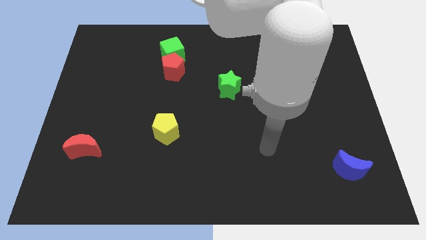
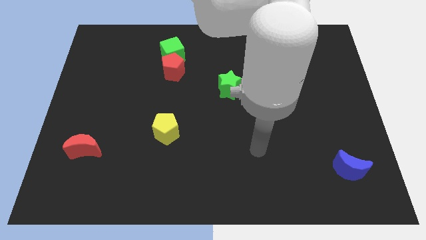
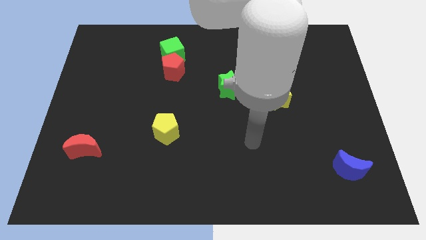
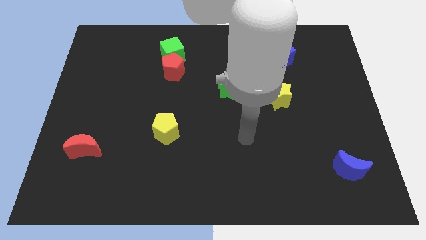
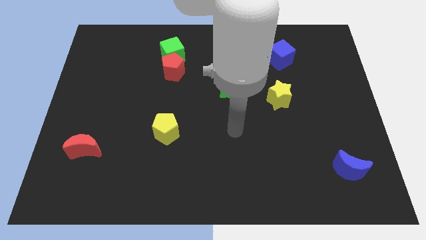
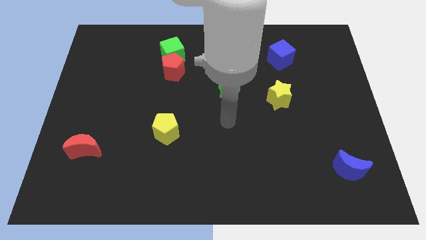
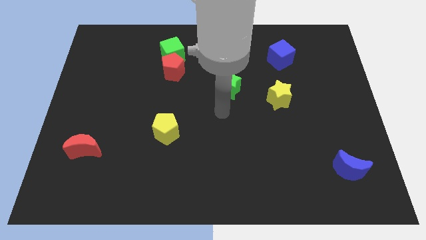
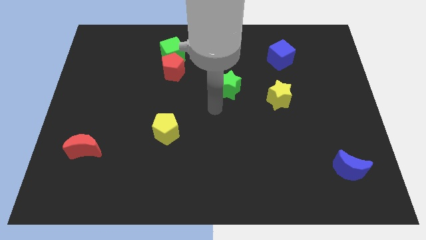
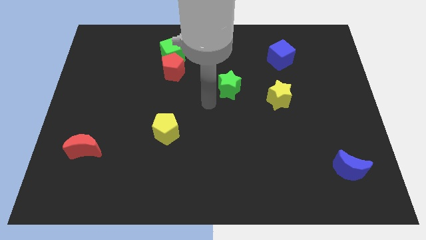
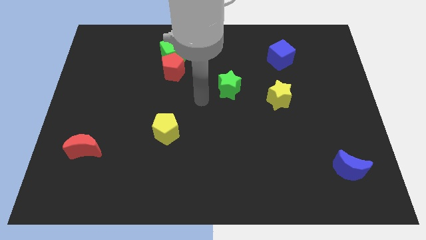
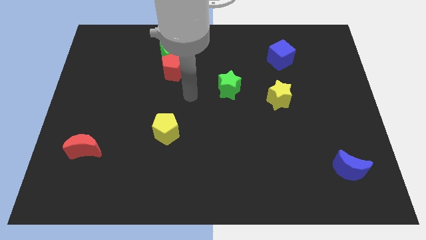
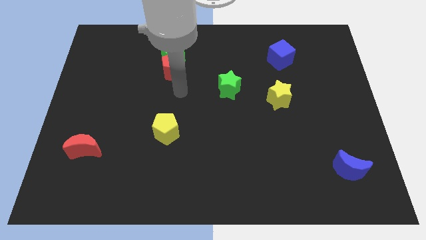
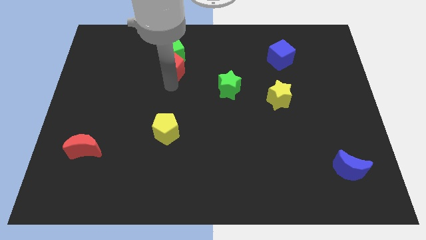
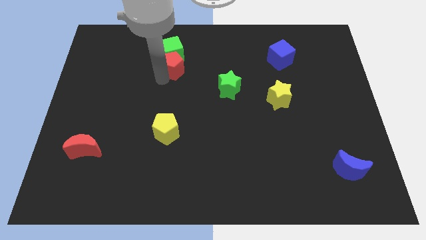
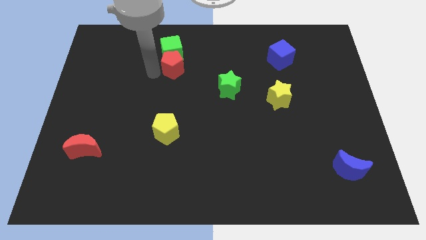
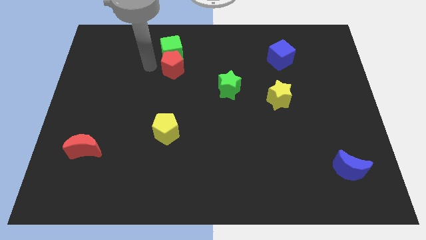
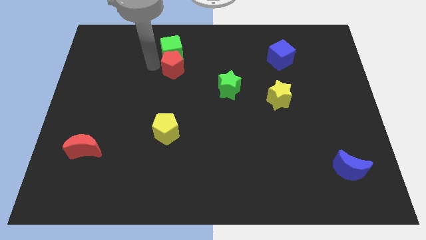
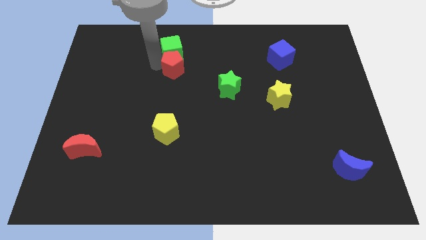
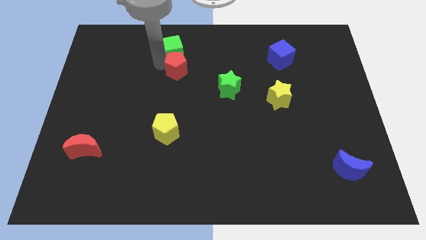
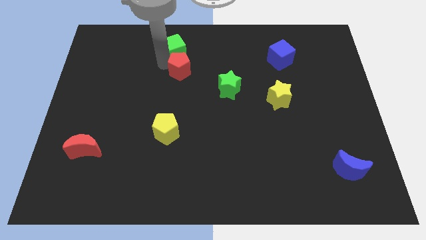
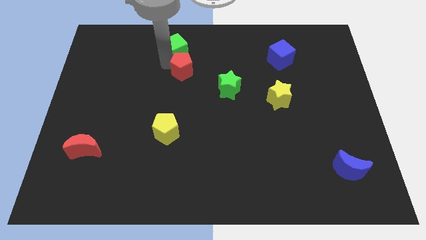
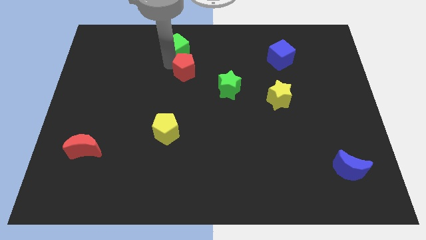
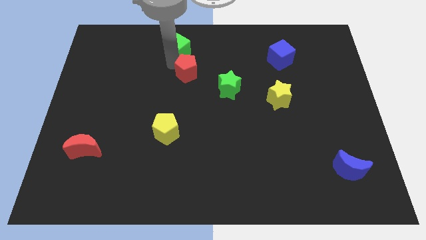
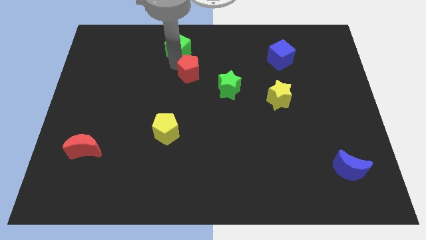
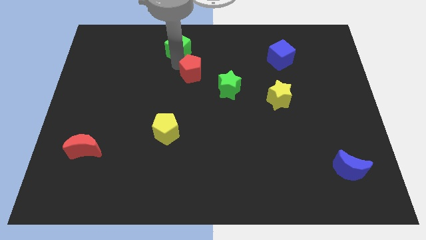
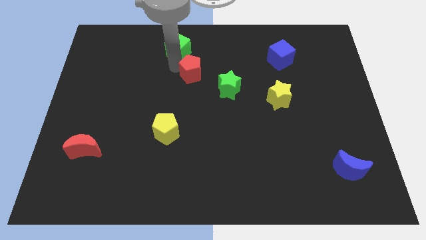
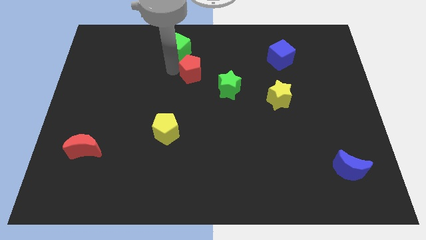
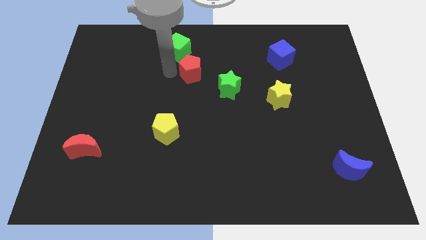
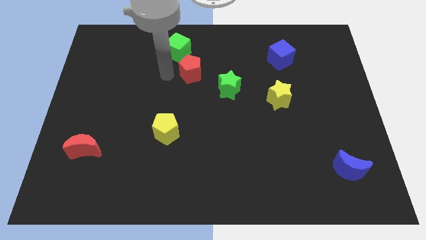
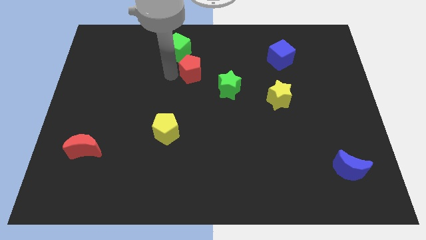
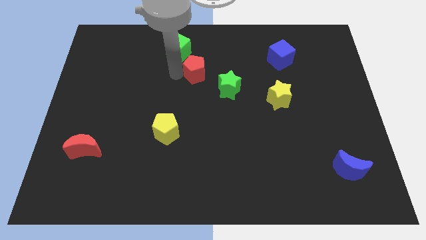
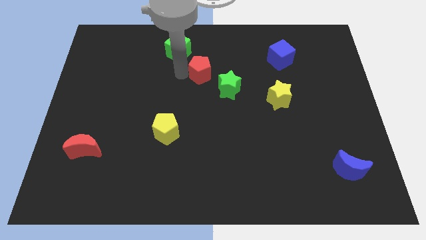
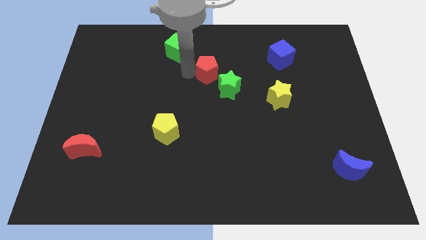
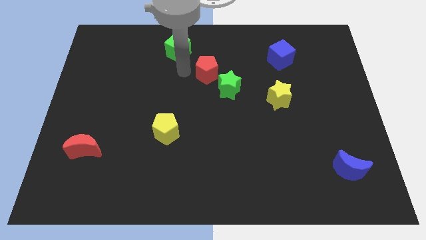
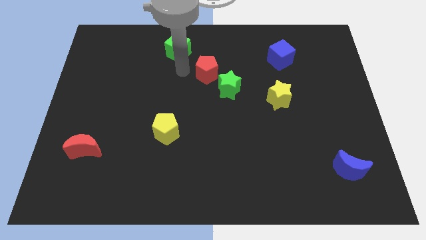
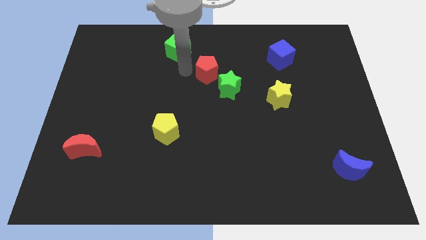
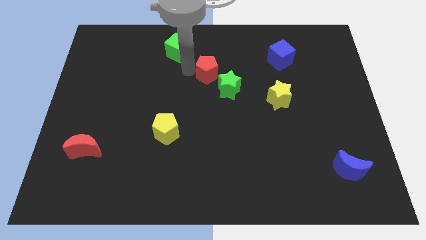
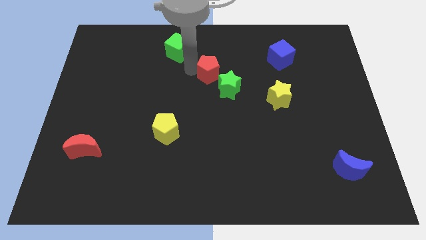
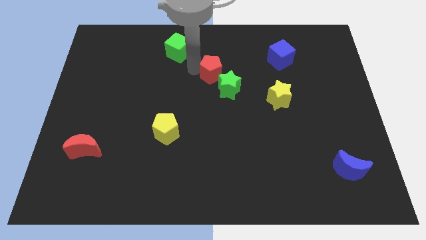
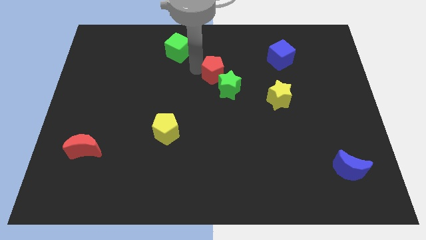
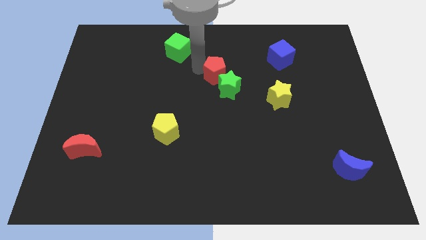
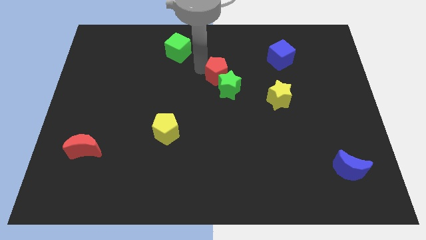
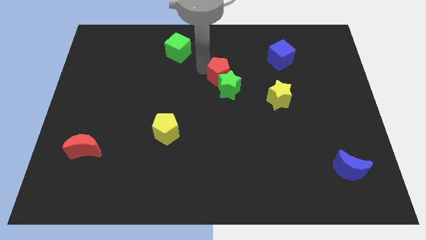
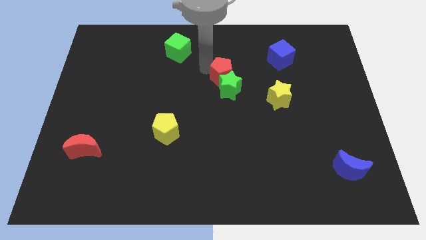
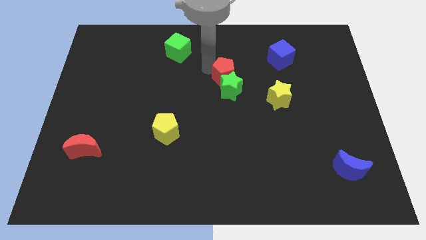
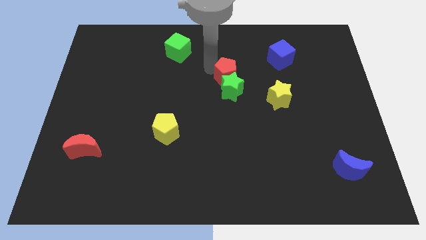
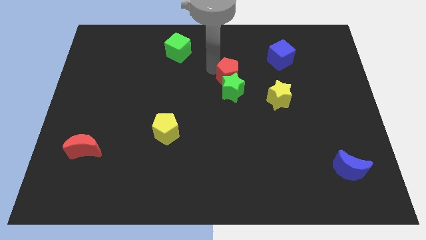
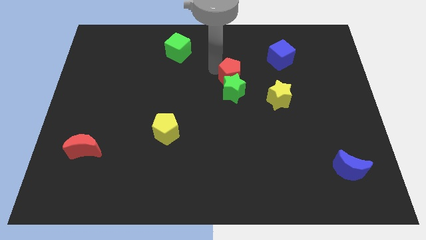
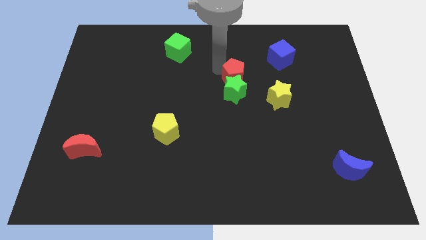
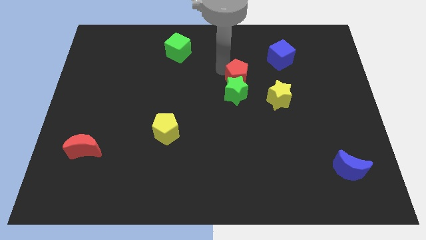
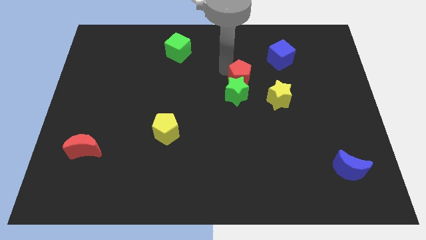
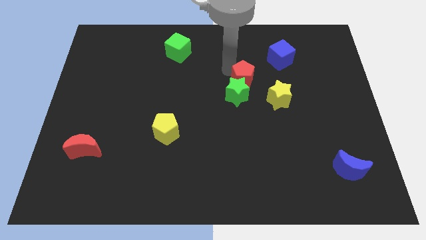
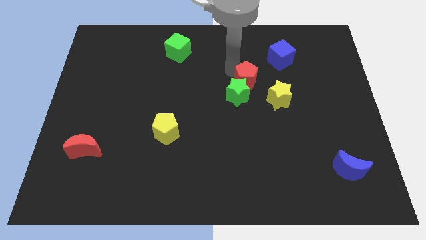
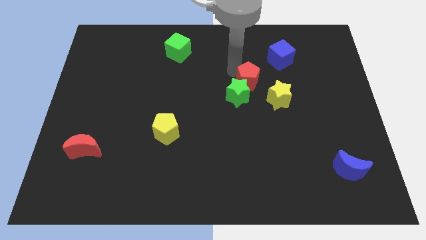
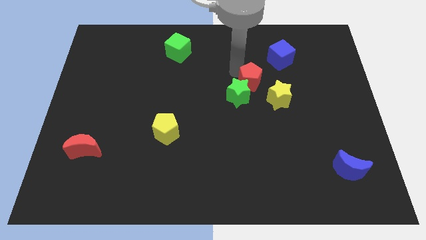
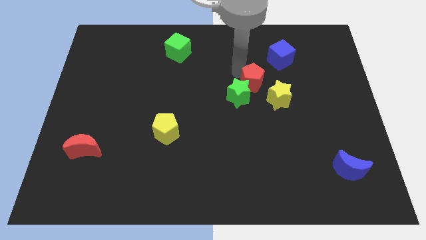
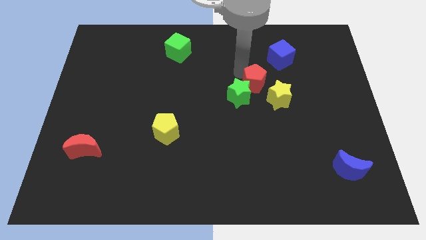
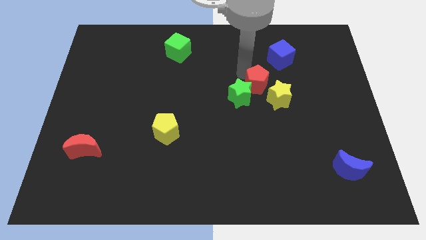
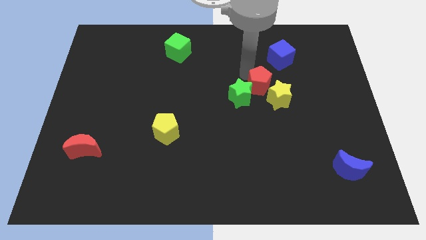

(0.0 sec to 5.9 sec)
slide the red pentagon to the yellow star
